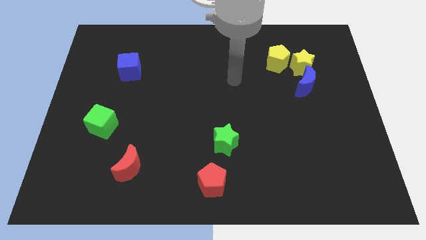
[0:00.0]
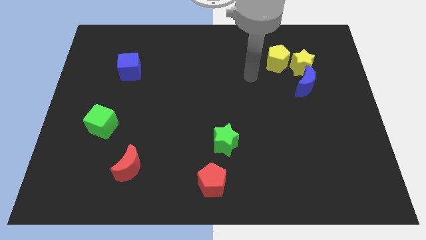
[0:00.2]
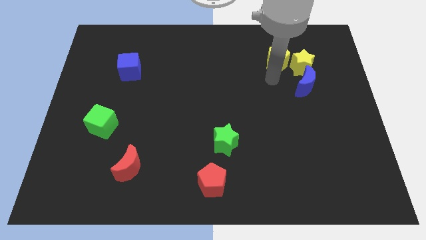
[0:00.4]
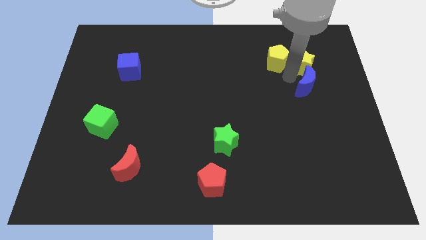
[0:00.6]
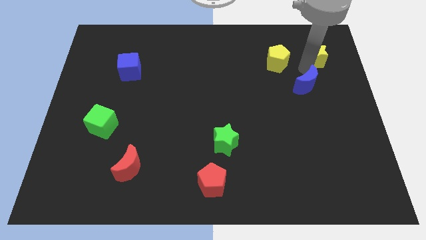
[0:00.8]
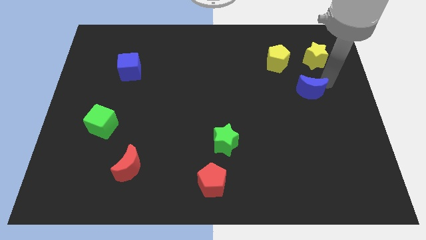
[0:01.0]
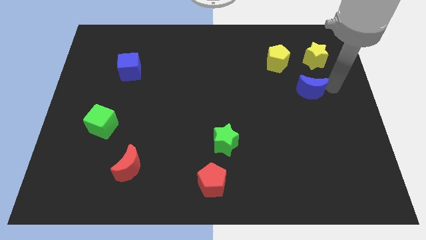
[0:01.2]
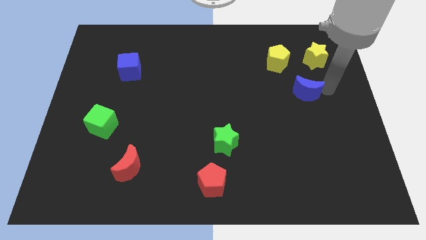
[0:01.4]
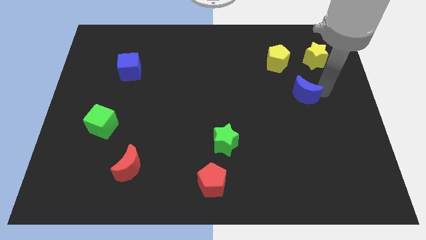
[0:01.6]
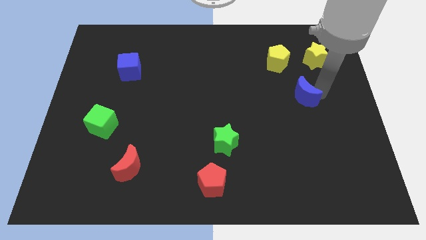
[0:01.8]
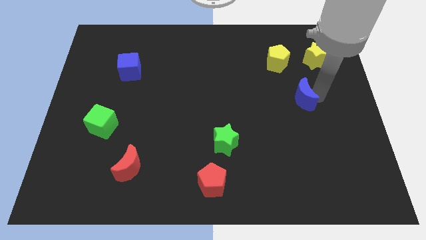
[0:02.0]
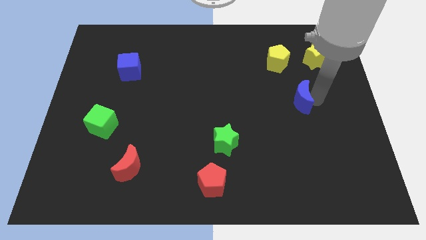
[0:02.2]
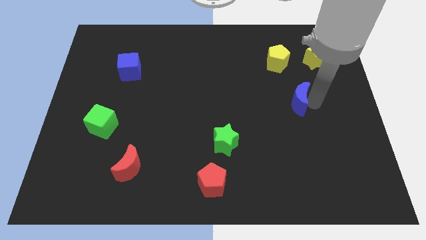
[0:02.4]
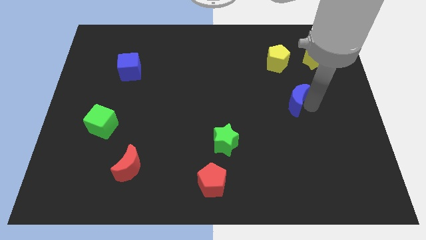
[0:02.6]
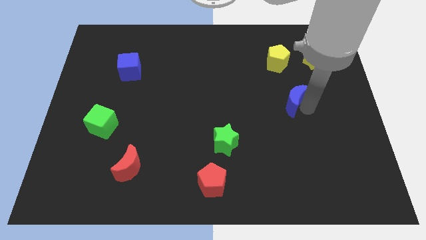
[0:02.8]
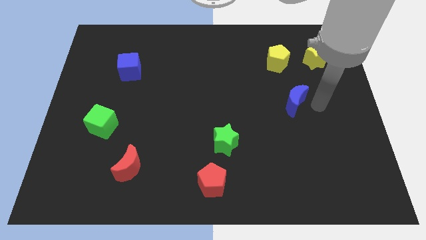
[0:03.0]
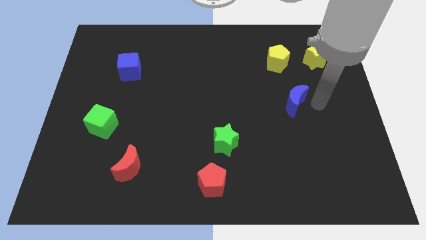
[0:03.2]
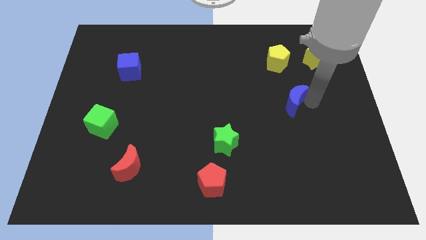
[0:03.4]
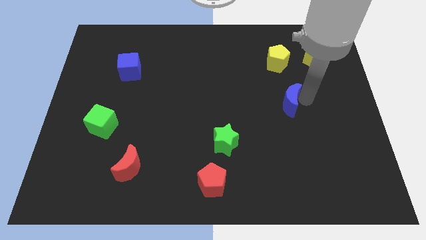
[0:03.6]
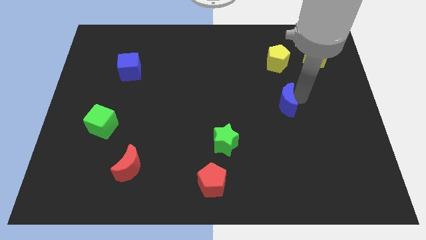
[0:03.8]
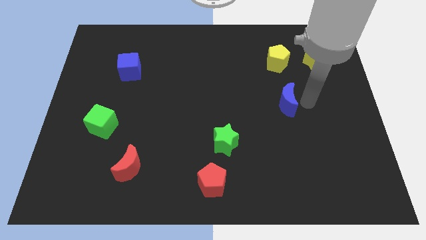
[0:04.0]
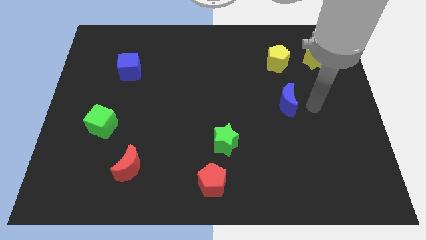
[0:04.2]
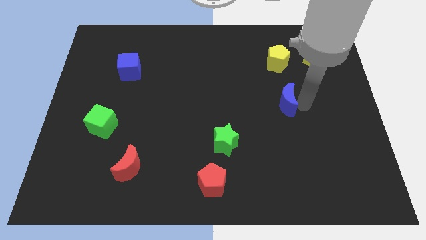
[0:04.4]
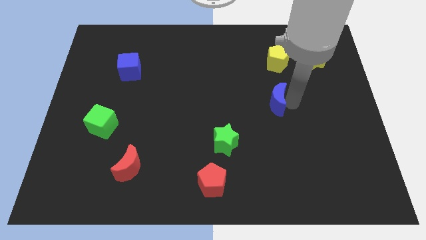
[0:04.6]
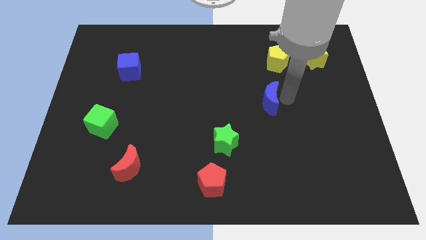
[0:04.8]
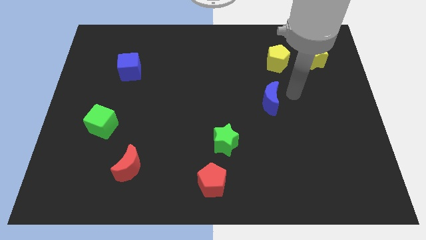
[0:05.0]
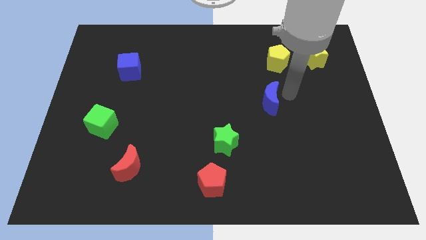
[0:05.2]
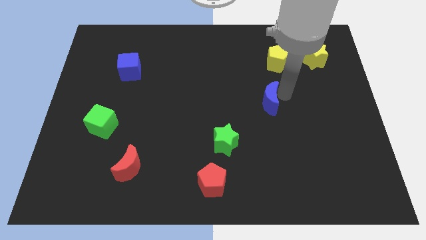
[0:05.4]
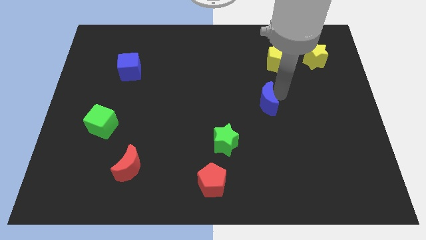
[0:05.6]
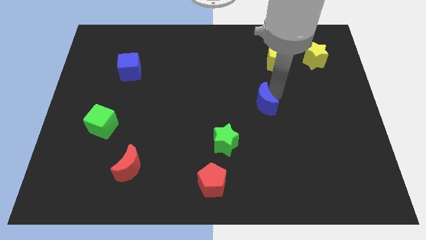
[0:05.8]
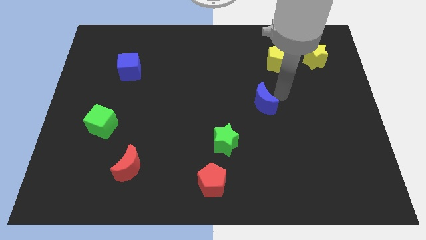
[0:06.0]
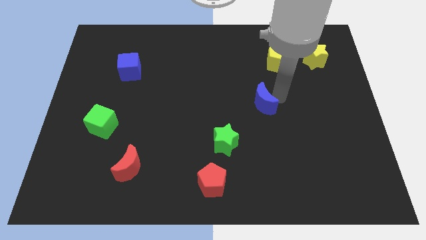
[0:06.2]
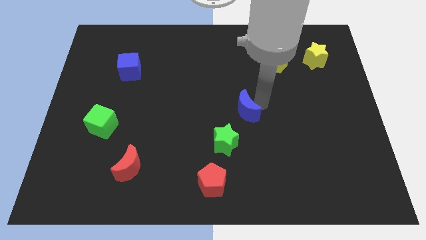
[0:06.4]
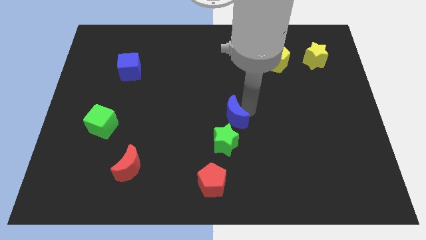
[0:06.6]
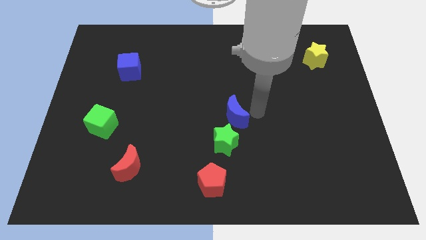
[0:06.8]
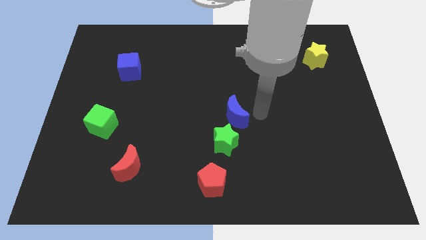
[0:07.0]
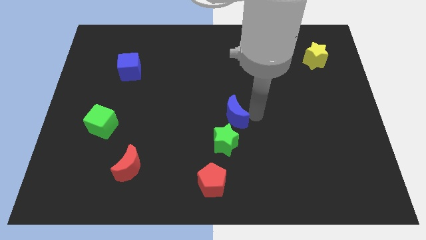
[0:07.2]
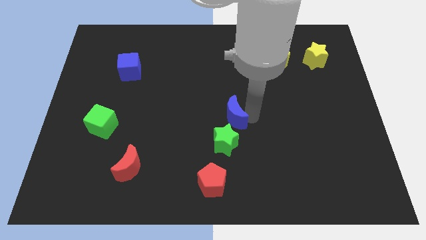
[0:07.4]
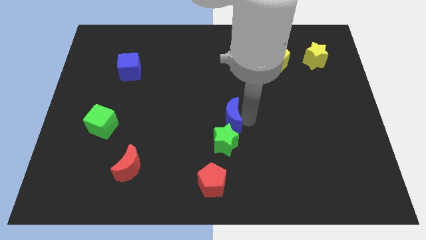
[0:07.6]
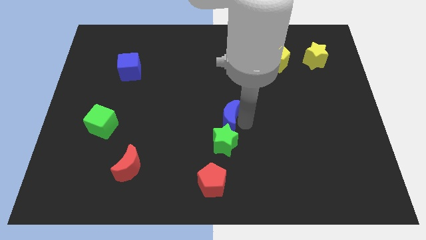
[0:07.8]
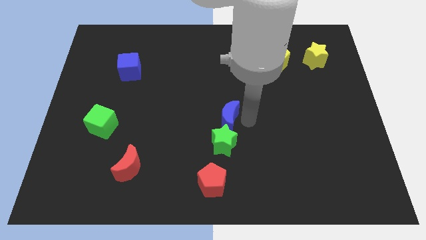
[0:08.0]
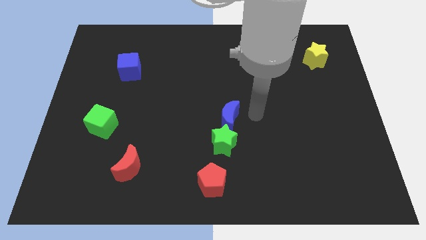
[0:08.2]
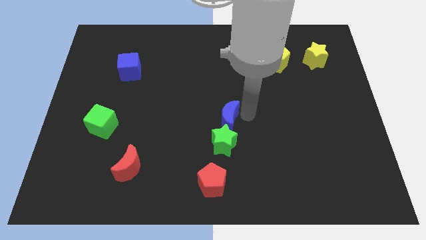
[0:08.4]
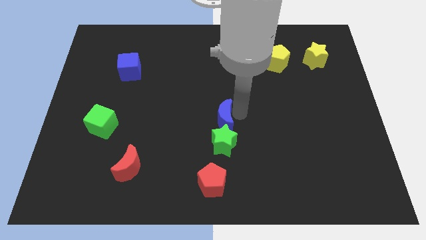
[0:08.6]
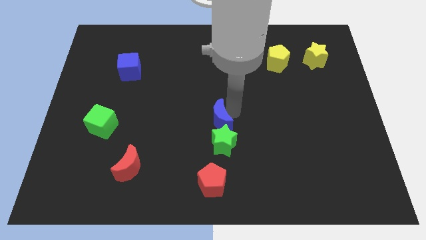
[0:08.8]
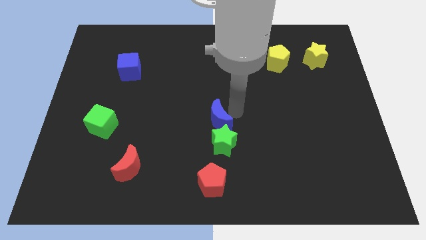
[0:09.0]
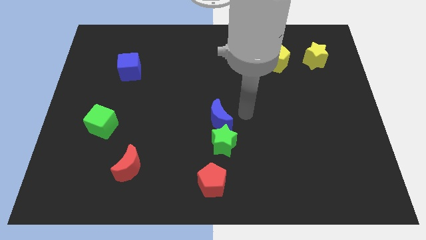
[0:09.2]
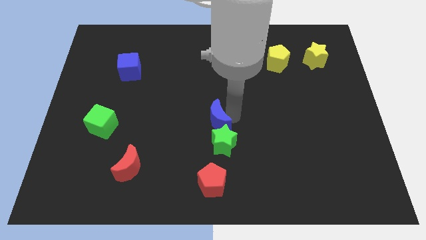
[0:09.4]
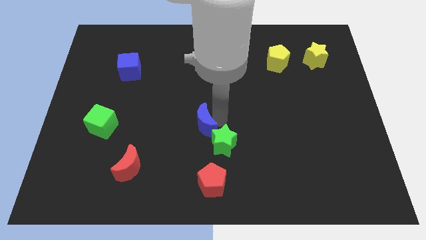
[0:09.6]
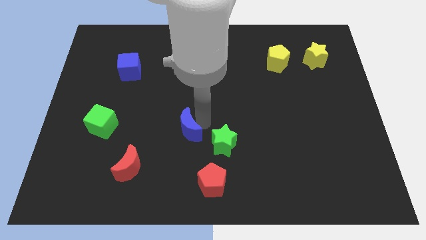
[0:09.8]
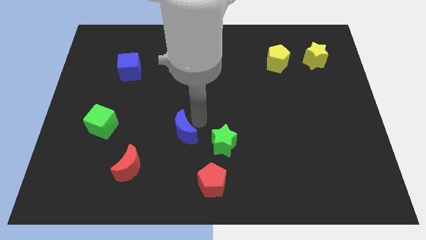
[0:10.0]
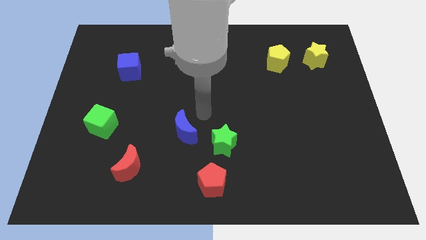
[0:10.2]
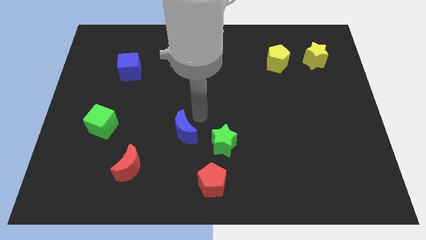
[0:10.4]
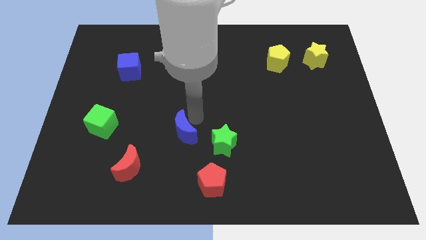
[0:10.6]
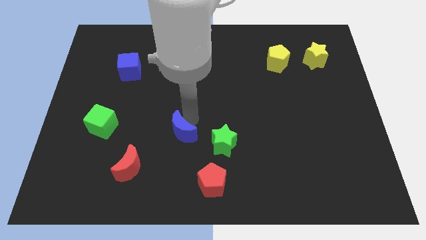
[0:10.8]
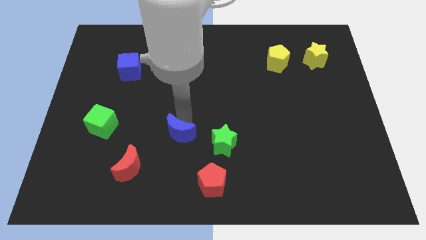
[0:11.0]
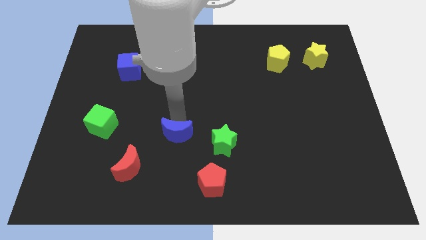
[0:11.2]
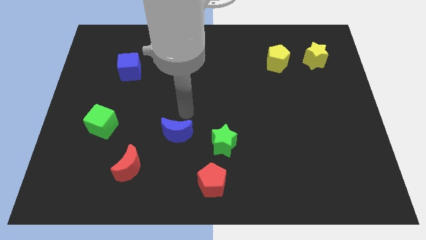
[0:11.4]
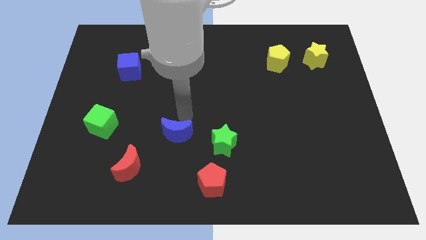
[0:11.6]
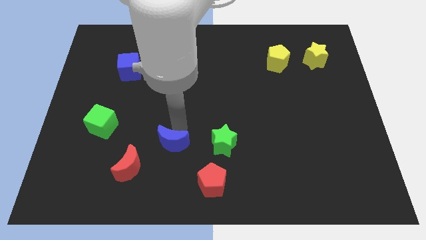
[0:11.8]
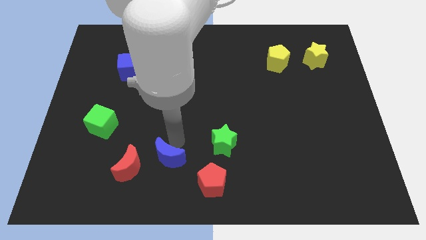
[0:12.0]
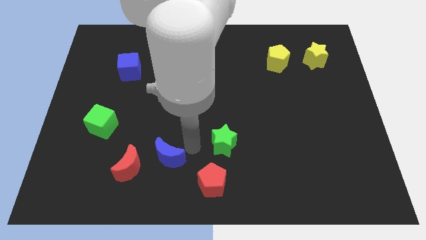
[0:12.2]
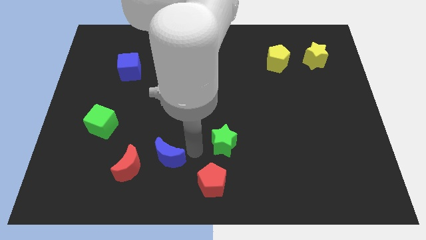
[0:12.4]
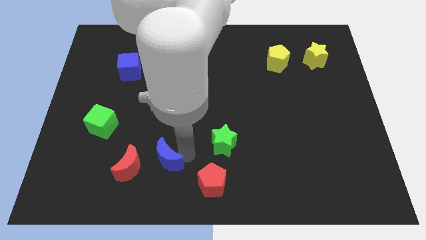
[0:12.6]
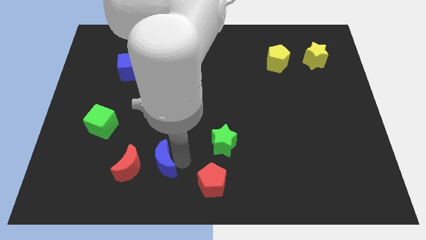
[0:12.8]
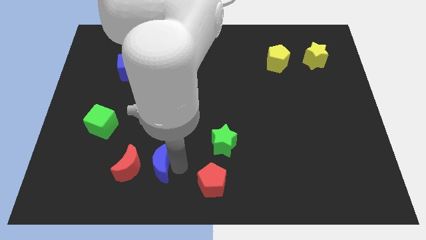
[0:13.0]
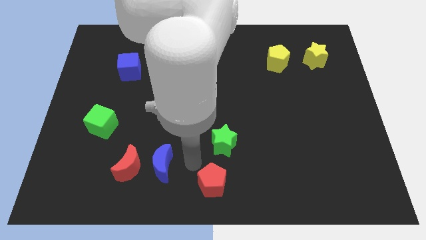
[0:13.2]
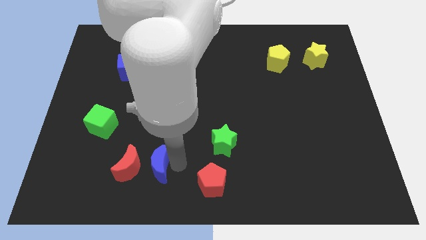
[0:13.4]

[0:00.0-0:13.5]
push the blue moon towards the red moon
